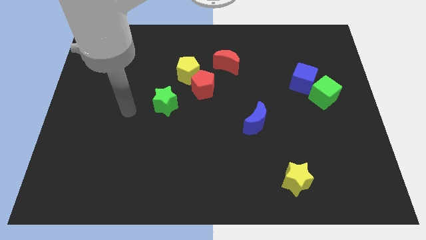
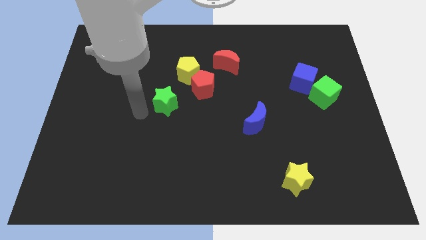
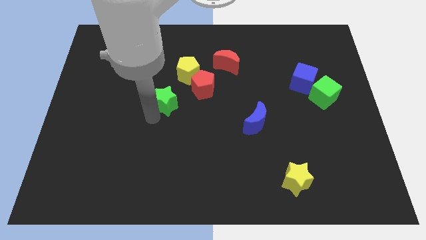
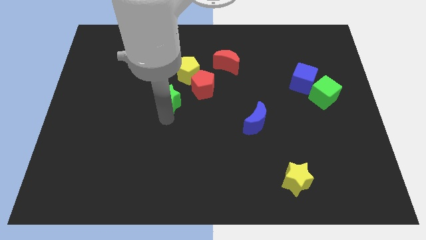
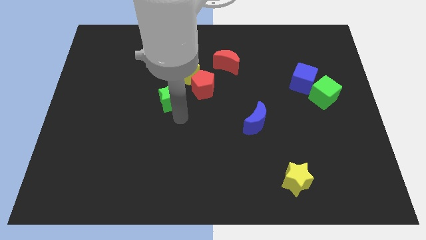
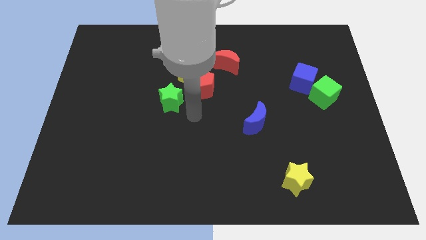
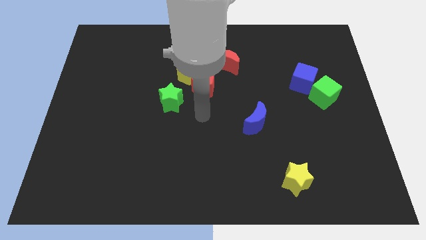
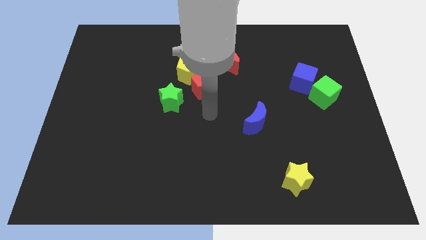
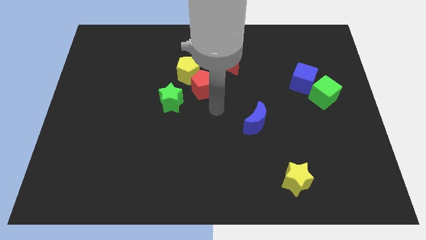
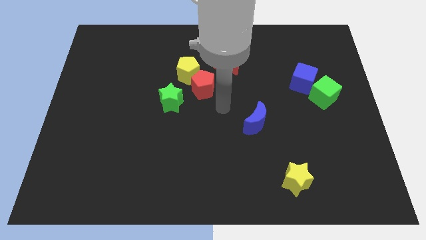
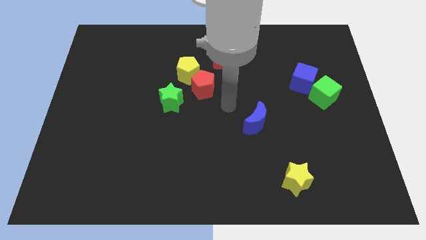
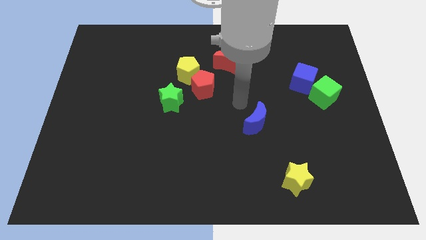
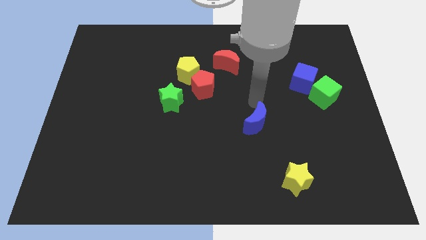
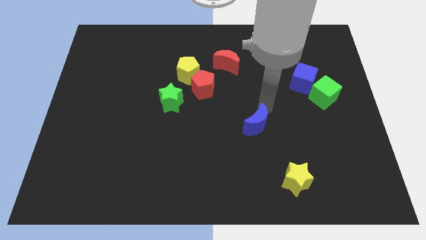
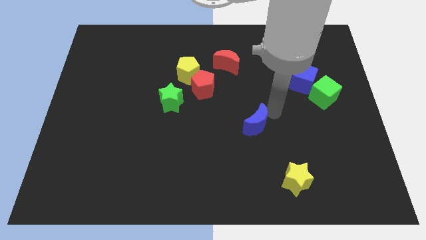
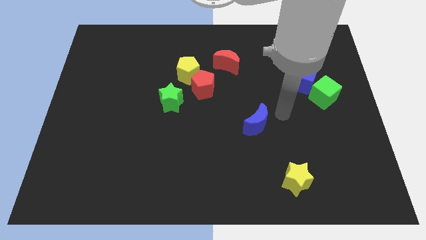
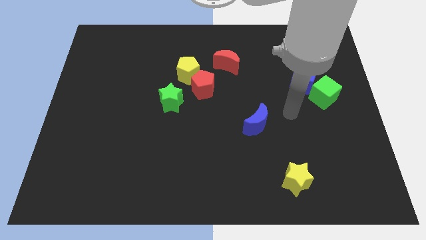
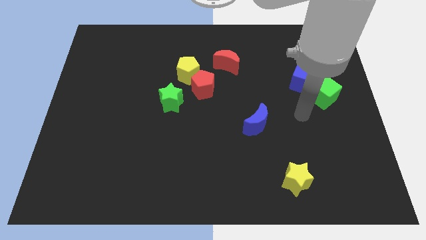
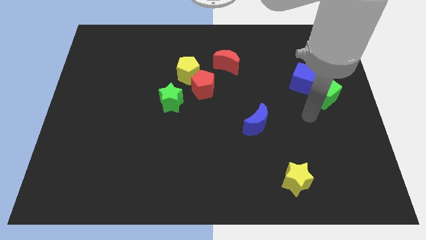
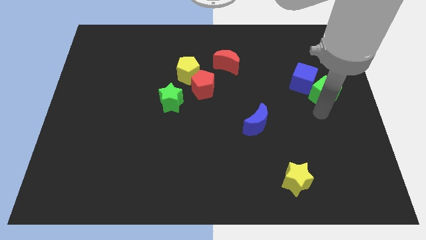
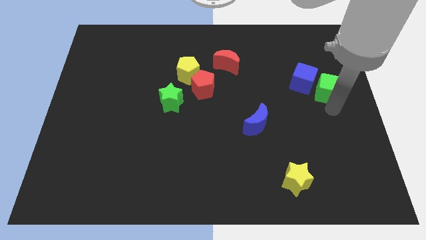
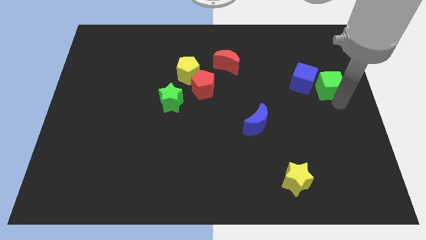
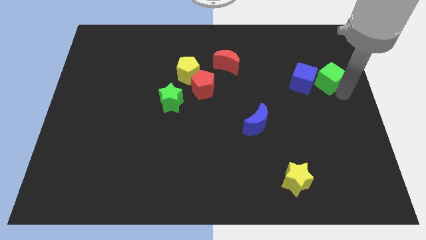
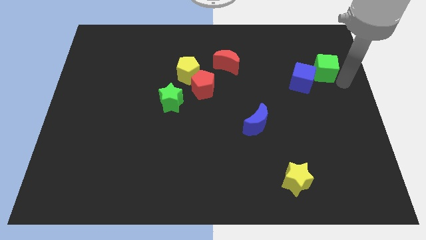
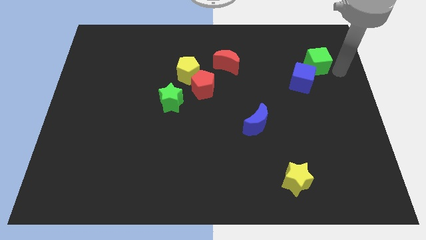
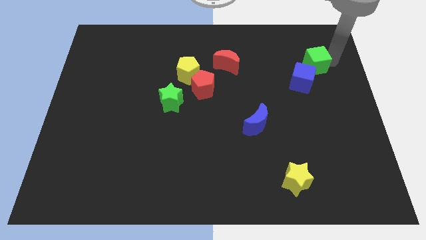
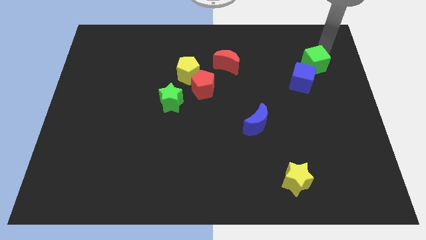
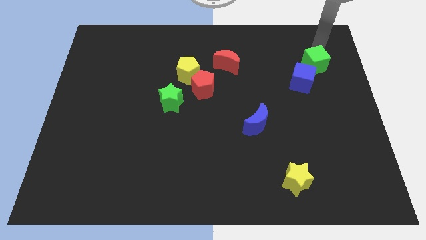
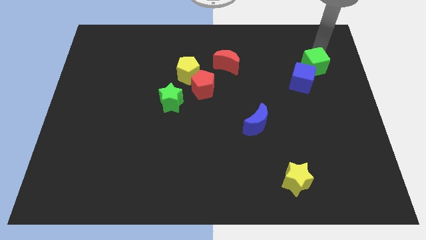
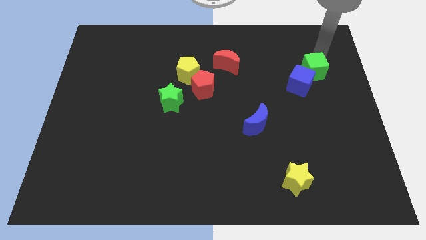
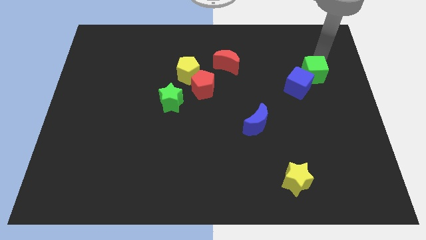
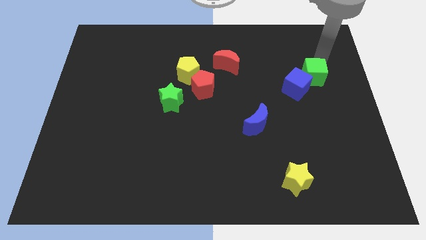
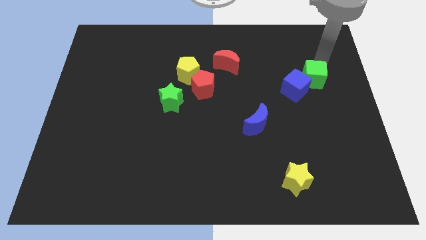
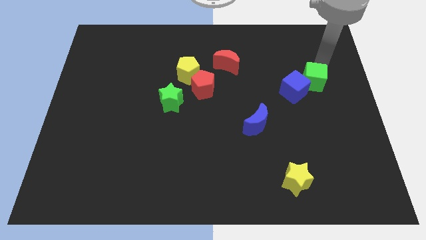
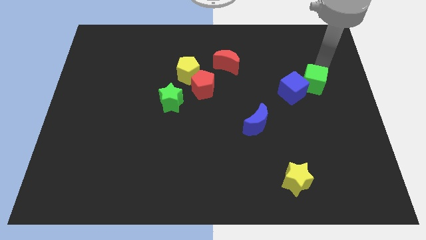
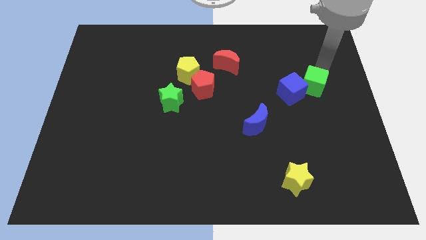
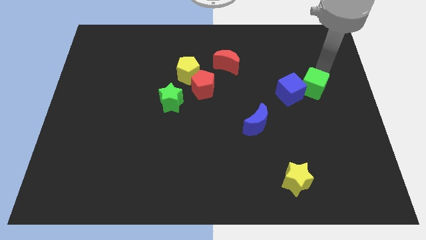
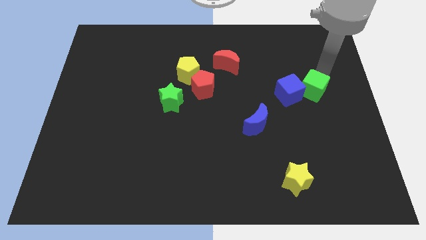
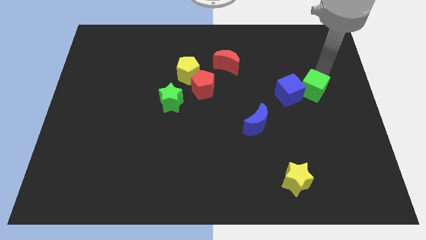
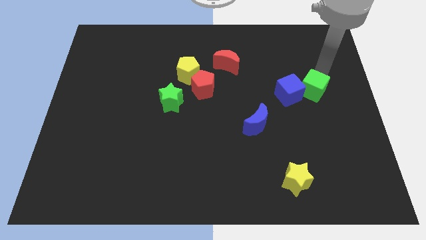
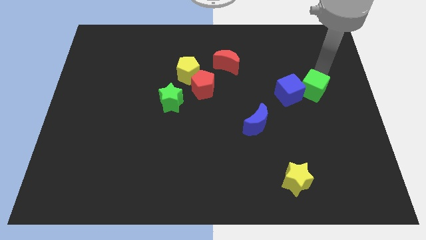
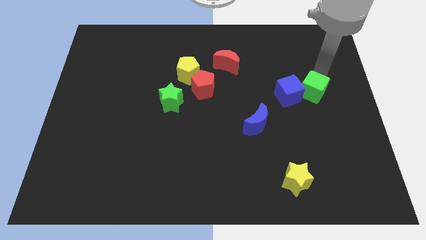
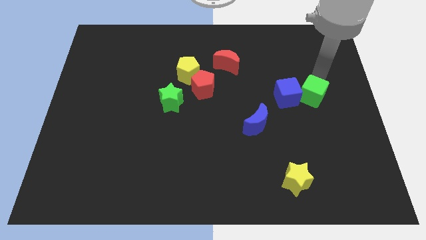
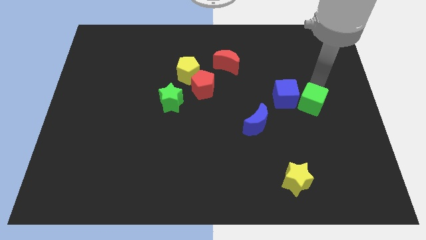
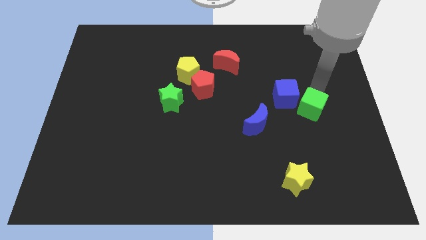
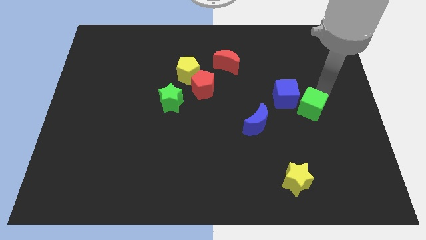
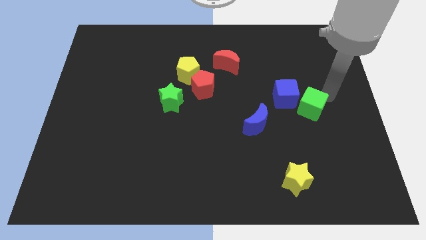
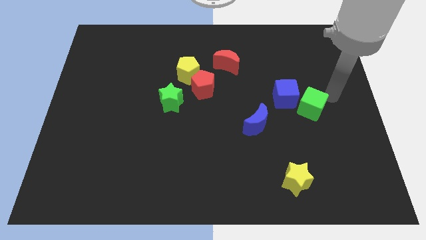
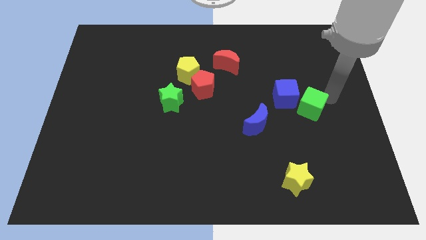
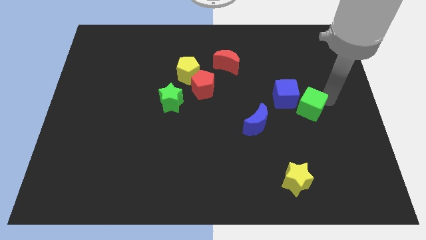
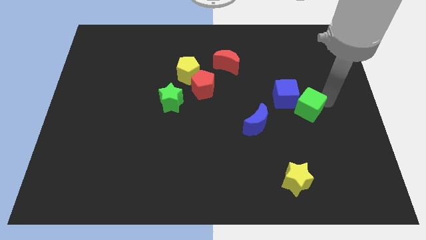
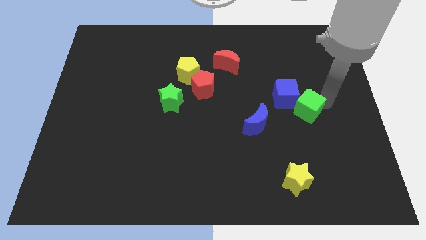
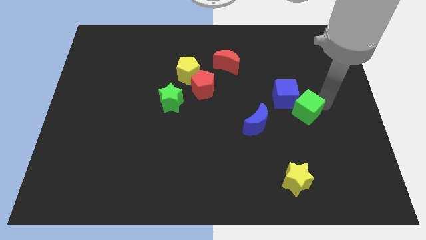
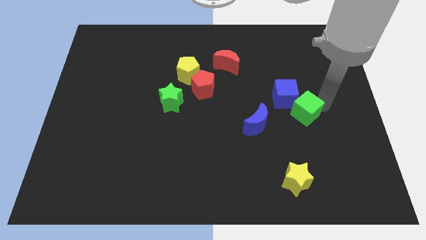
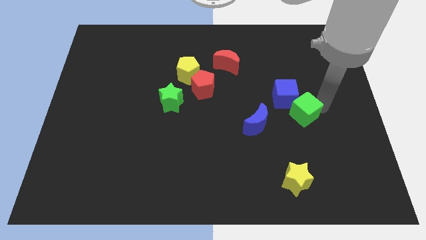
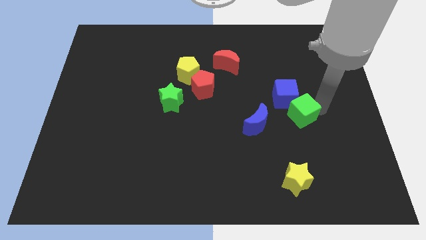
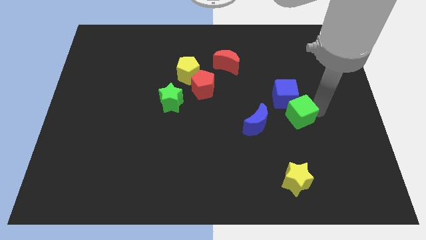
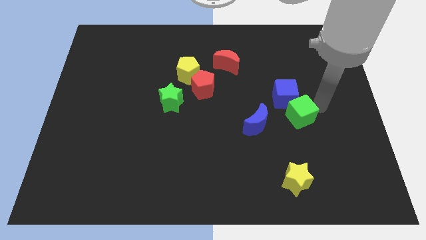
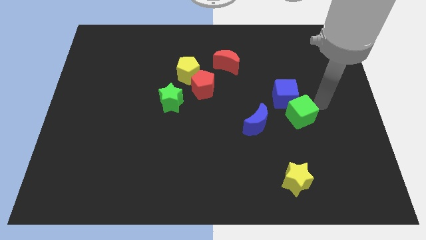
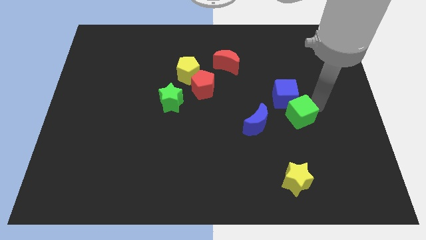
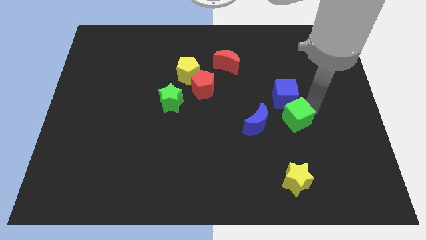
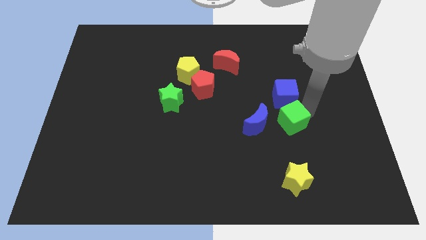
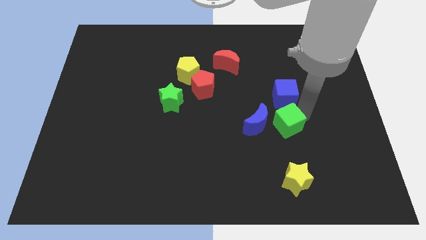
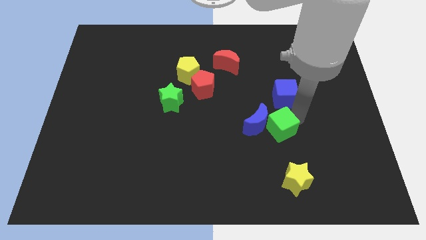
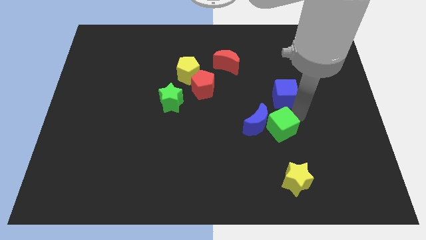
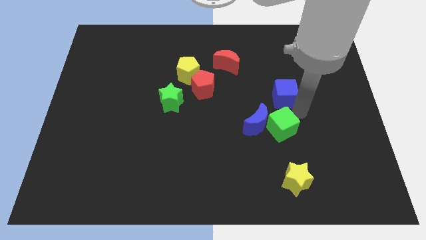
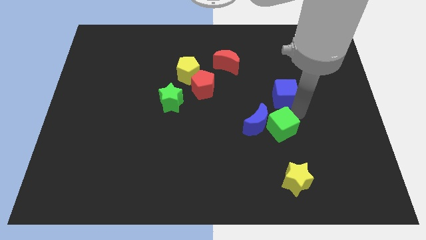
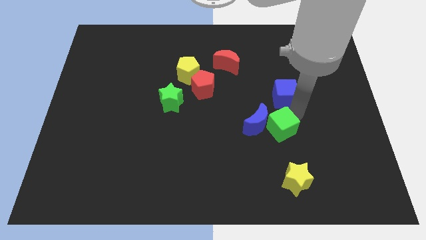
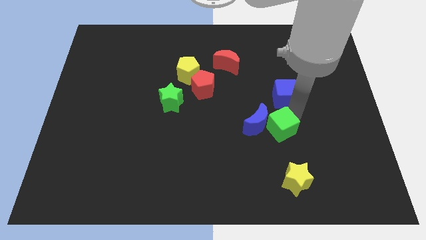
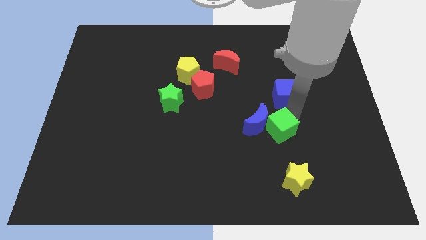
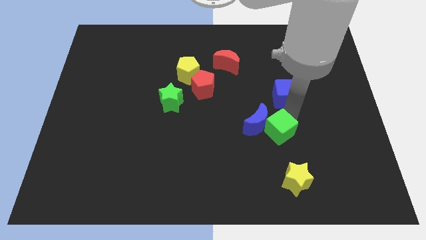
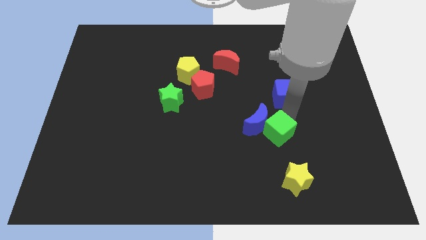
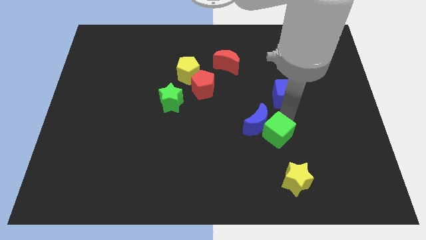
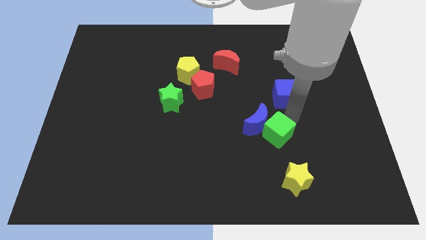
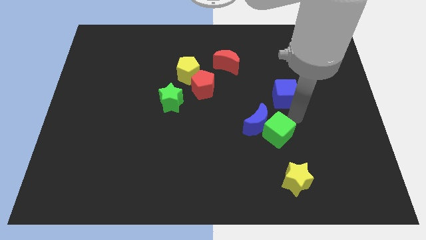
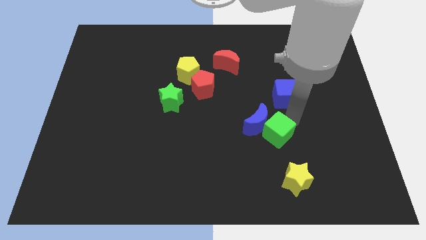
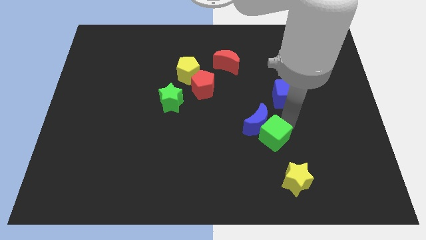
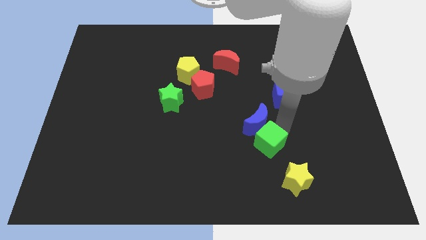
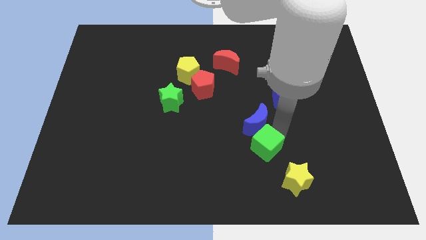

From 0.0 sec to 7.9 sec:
push the green cube down and left

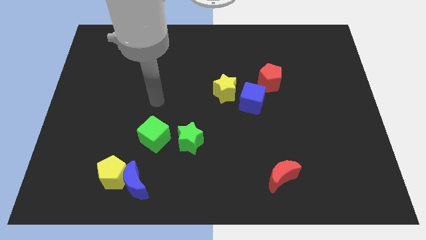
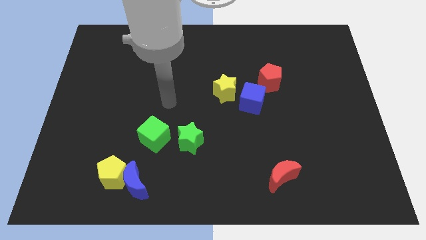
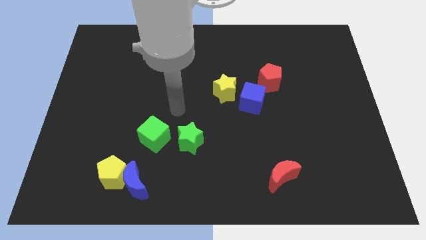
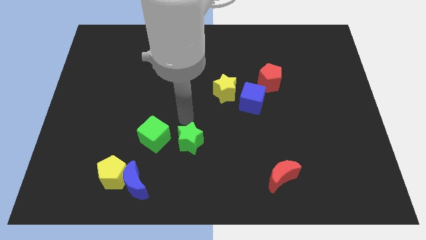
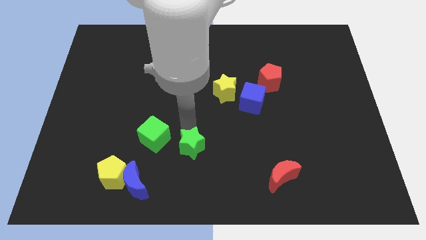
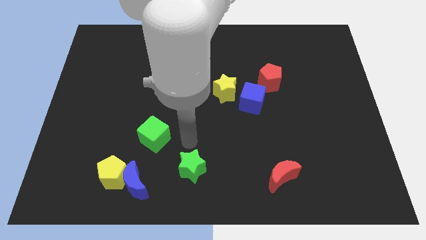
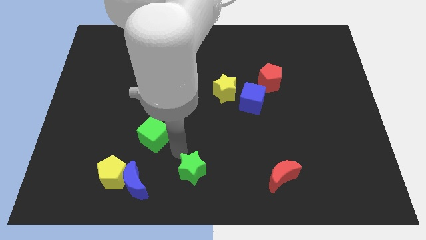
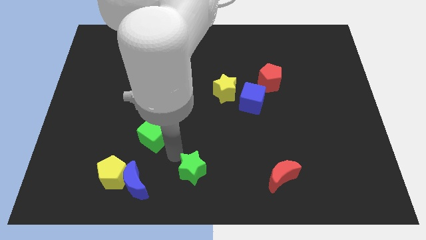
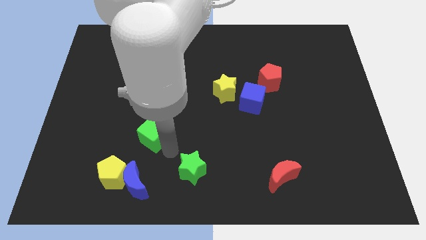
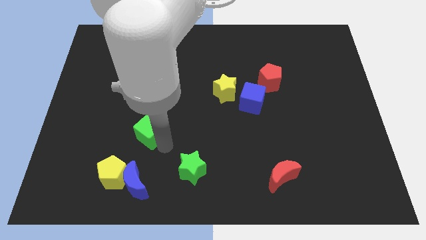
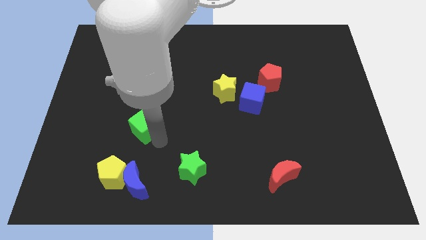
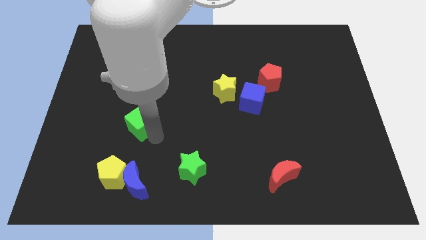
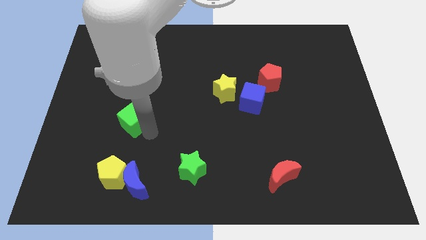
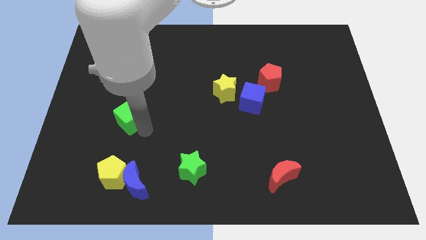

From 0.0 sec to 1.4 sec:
slide the green cube a little bit upwards and then to the left
